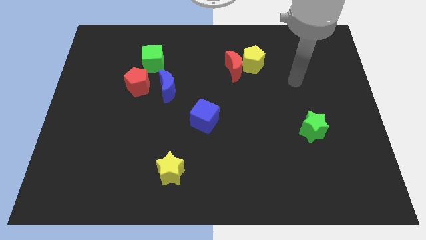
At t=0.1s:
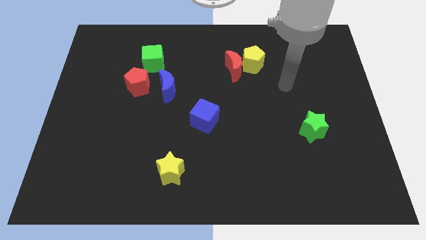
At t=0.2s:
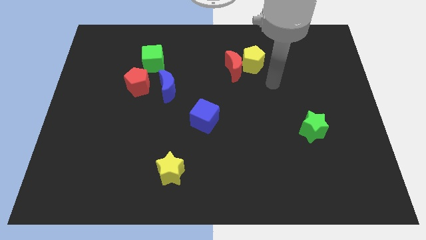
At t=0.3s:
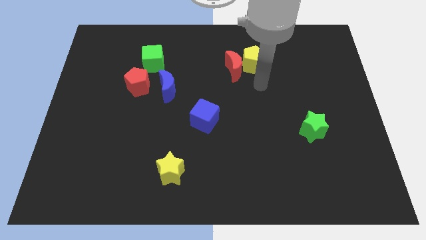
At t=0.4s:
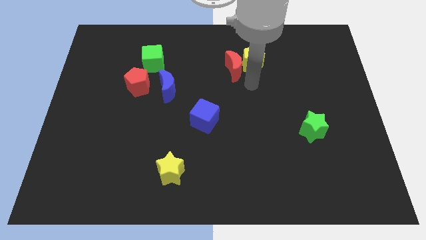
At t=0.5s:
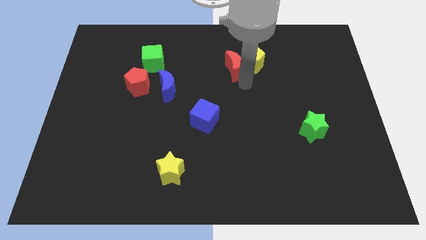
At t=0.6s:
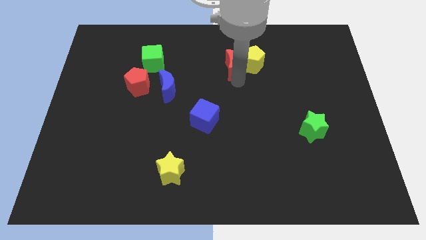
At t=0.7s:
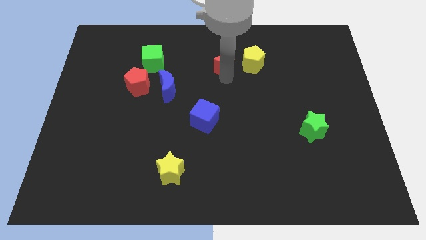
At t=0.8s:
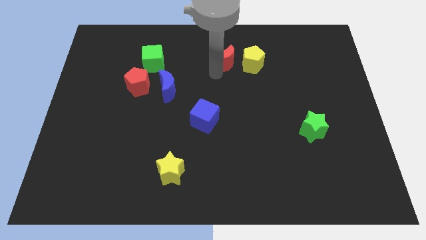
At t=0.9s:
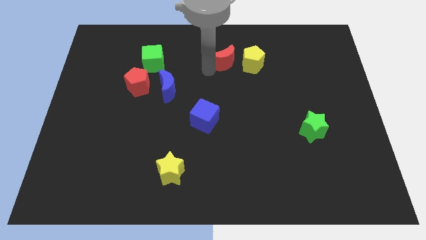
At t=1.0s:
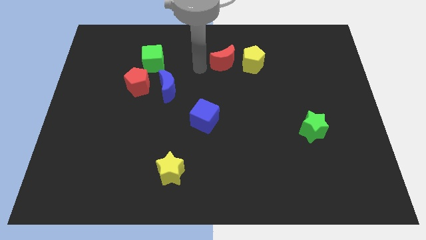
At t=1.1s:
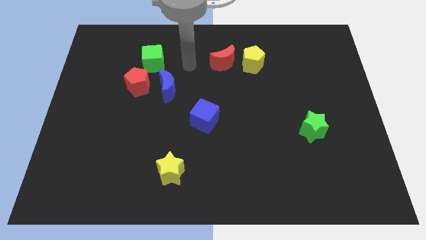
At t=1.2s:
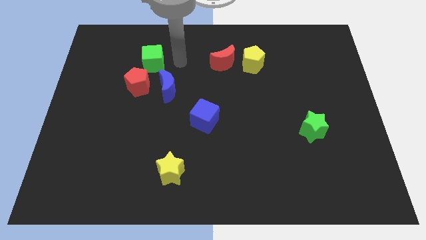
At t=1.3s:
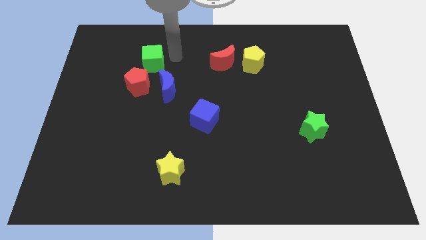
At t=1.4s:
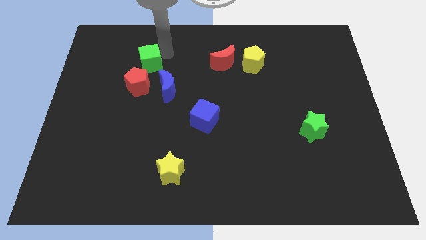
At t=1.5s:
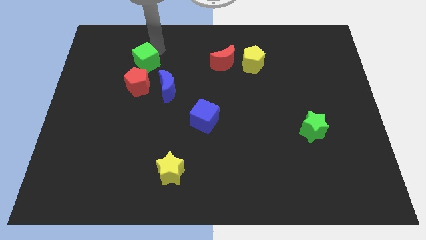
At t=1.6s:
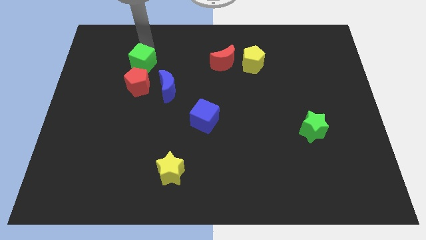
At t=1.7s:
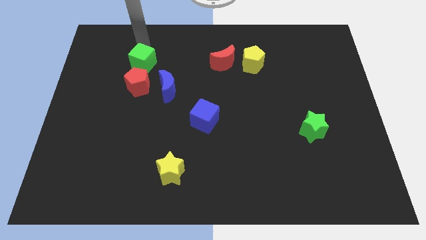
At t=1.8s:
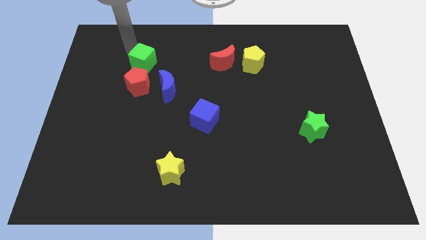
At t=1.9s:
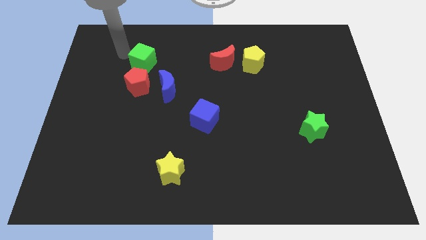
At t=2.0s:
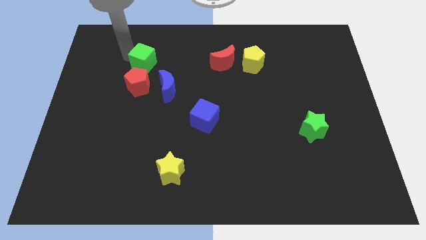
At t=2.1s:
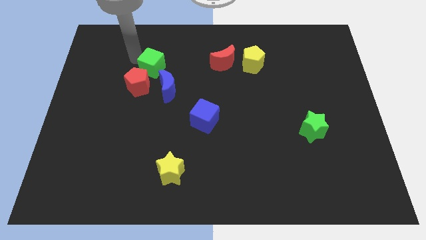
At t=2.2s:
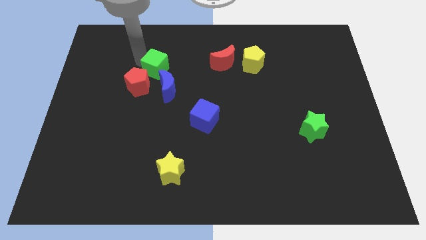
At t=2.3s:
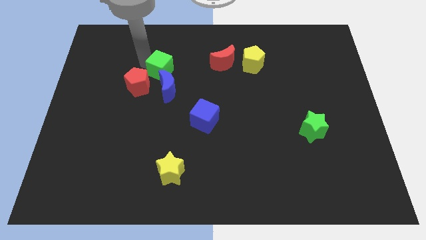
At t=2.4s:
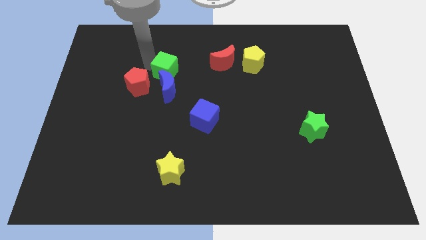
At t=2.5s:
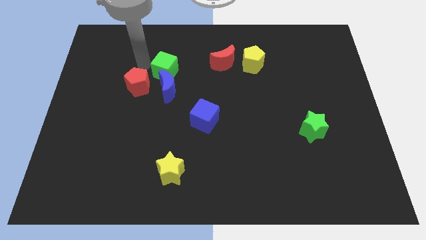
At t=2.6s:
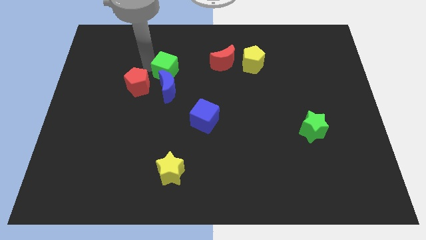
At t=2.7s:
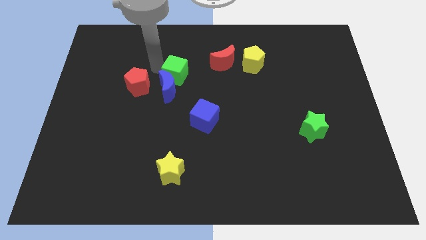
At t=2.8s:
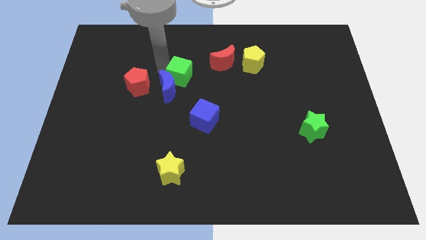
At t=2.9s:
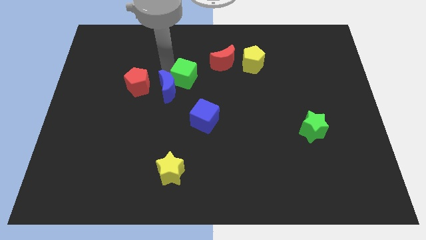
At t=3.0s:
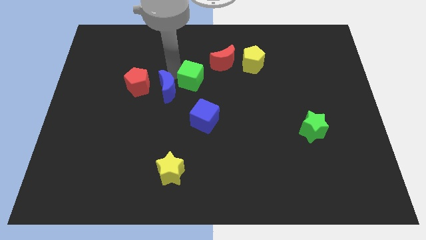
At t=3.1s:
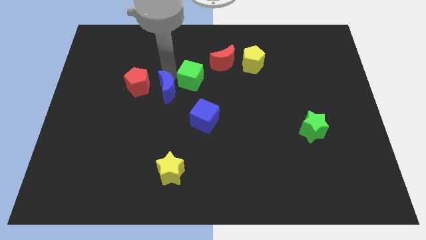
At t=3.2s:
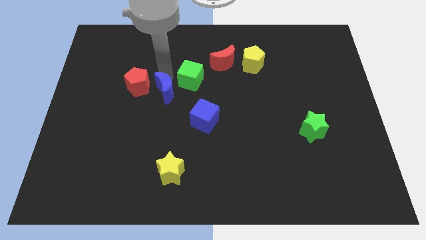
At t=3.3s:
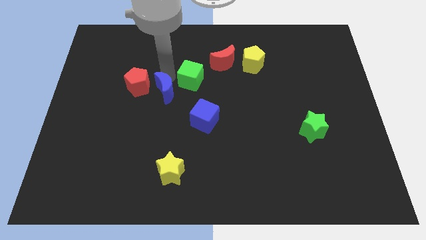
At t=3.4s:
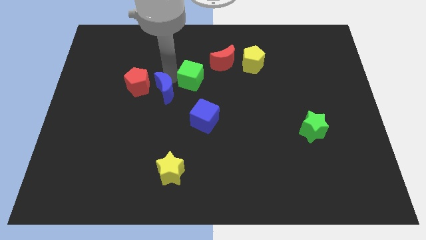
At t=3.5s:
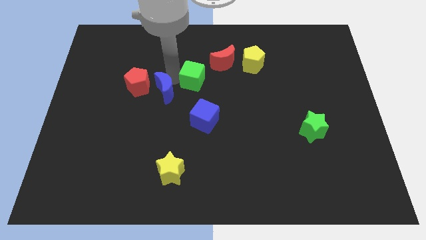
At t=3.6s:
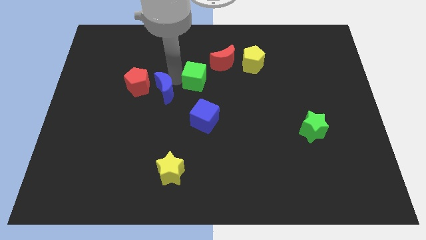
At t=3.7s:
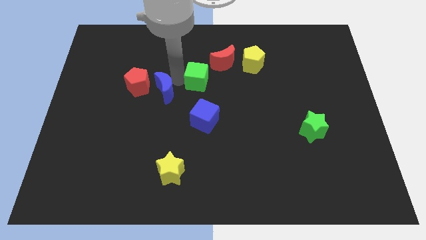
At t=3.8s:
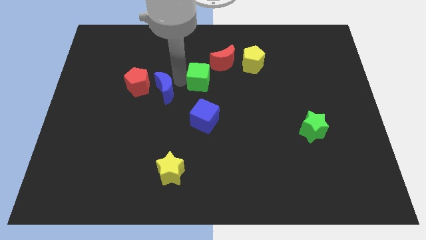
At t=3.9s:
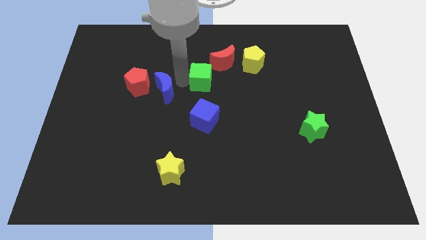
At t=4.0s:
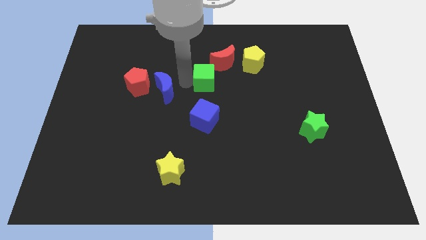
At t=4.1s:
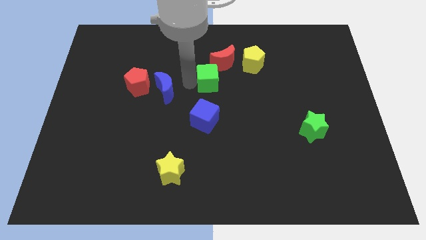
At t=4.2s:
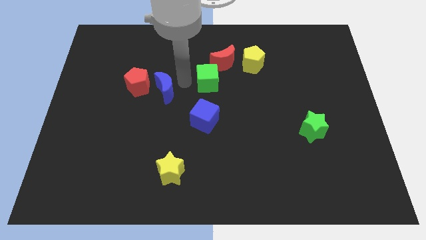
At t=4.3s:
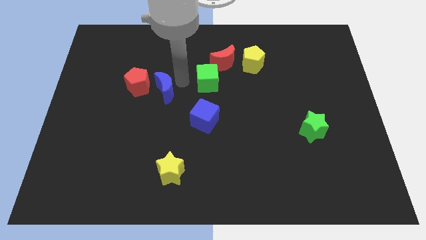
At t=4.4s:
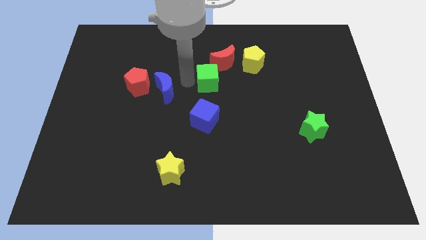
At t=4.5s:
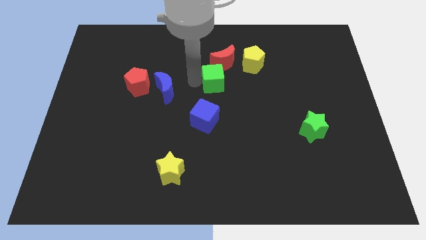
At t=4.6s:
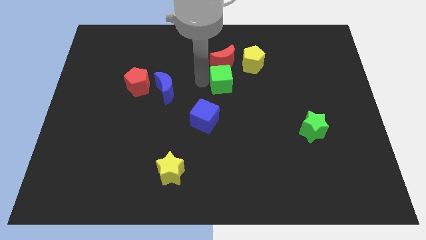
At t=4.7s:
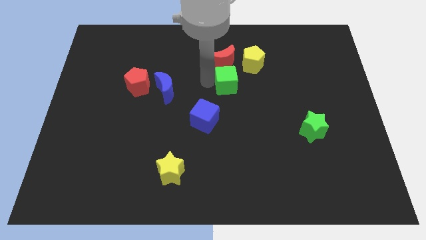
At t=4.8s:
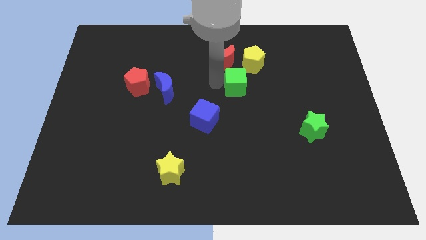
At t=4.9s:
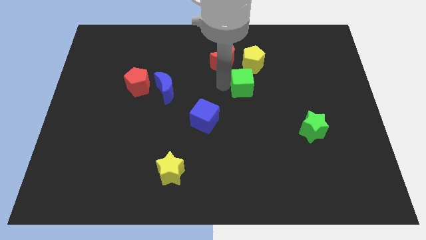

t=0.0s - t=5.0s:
push the green cube right

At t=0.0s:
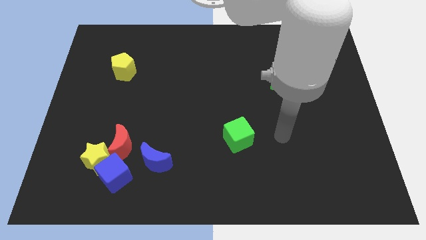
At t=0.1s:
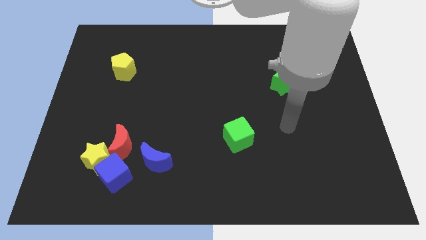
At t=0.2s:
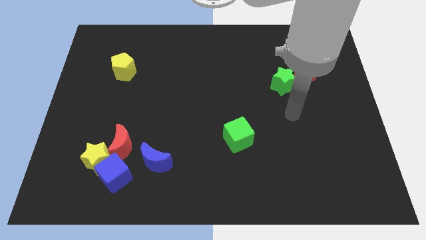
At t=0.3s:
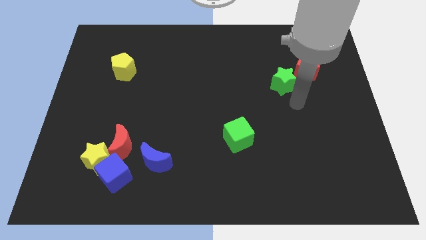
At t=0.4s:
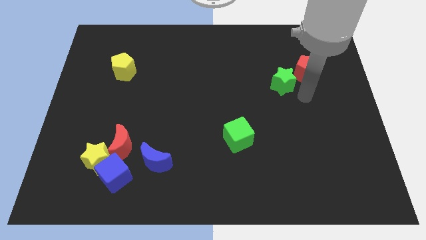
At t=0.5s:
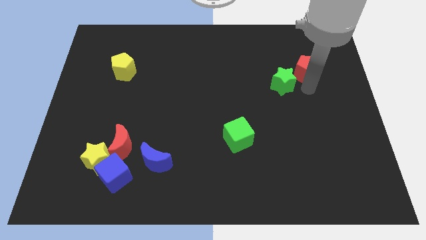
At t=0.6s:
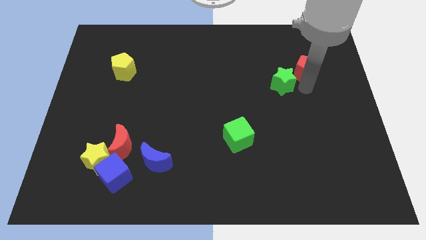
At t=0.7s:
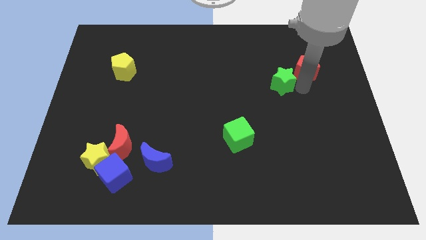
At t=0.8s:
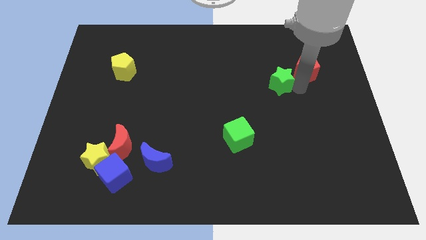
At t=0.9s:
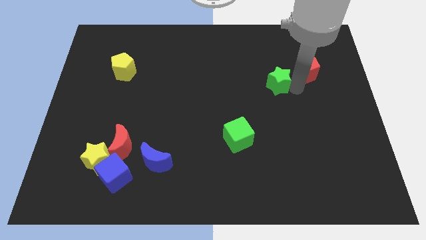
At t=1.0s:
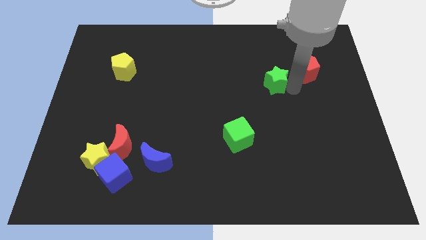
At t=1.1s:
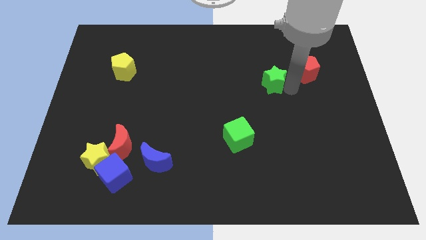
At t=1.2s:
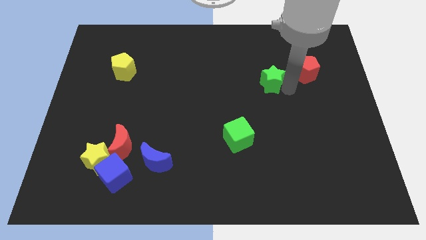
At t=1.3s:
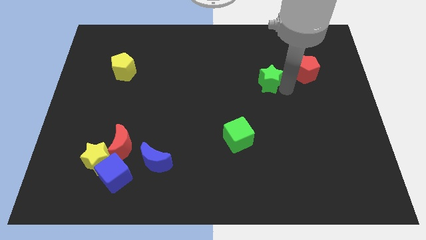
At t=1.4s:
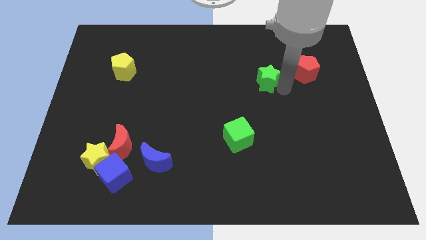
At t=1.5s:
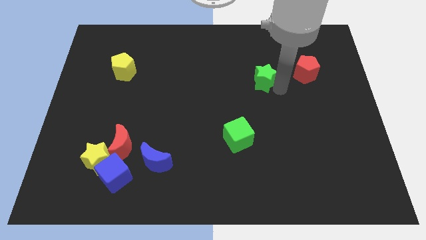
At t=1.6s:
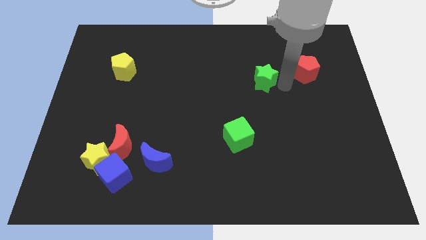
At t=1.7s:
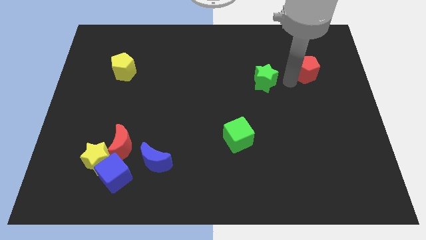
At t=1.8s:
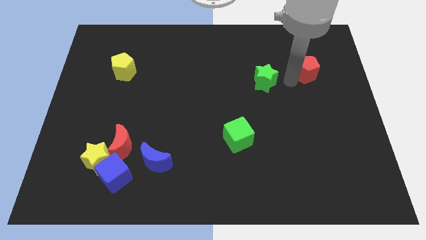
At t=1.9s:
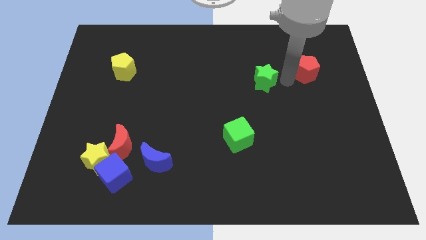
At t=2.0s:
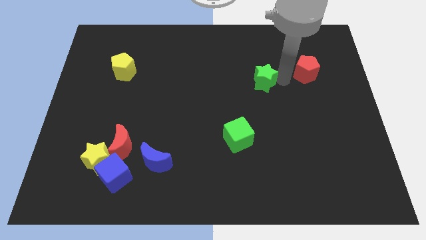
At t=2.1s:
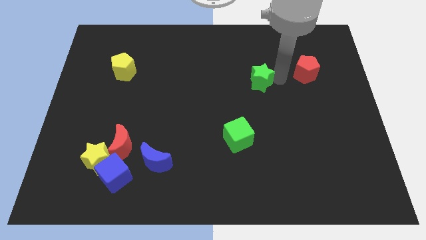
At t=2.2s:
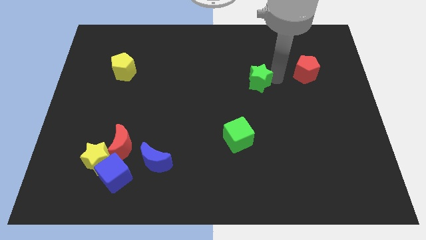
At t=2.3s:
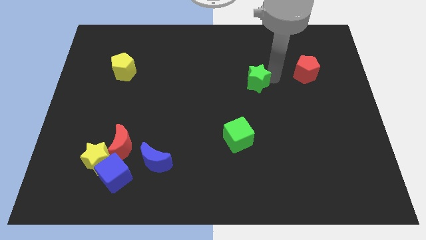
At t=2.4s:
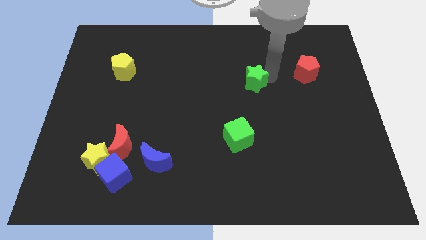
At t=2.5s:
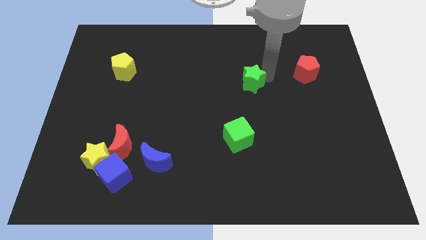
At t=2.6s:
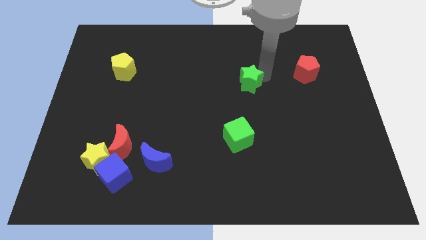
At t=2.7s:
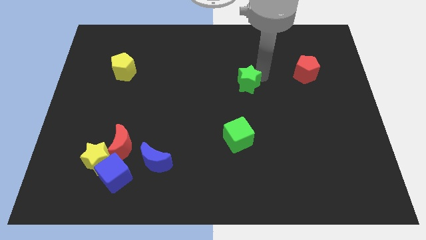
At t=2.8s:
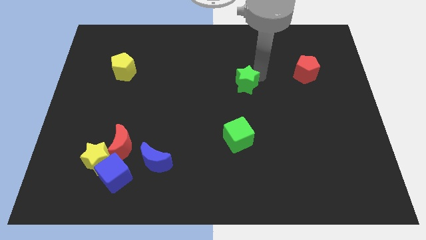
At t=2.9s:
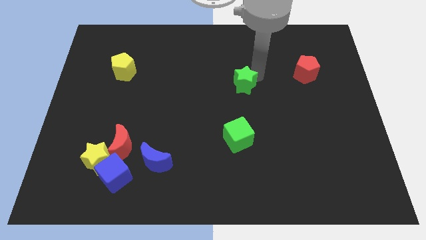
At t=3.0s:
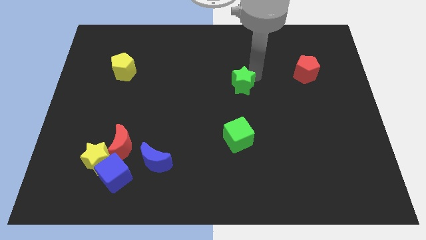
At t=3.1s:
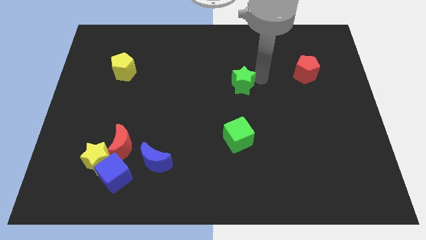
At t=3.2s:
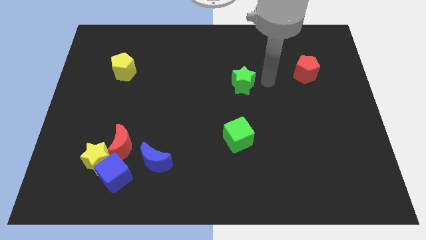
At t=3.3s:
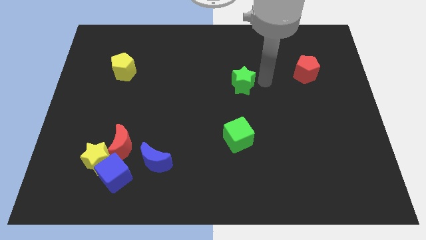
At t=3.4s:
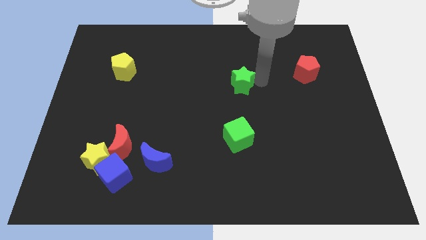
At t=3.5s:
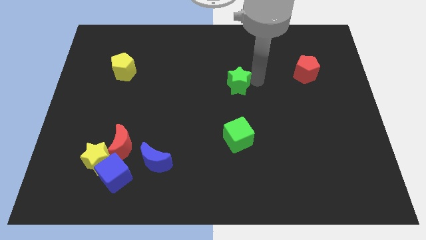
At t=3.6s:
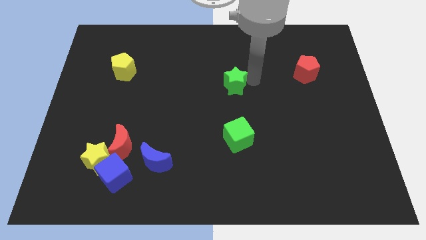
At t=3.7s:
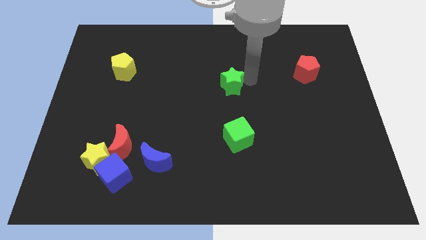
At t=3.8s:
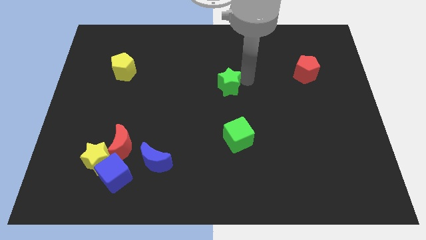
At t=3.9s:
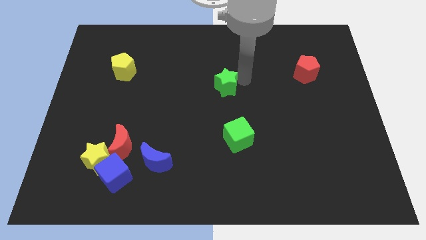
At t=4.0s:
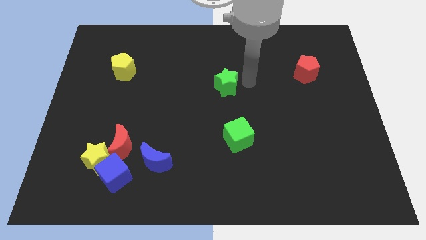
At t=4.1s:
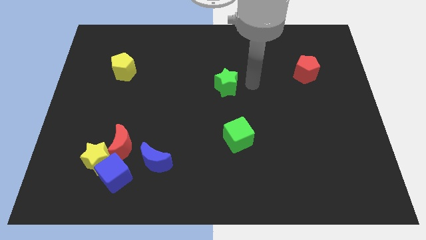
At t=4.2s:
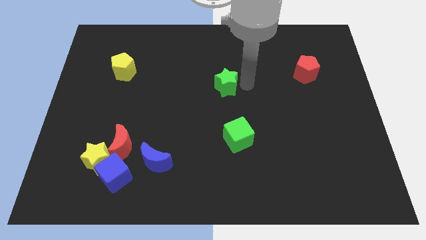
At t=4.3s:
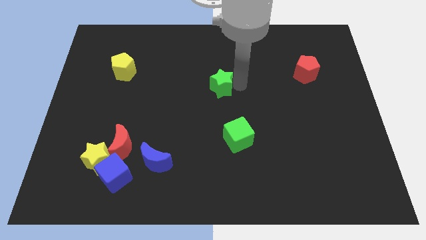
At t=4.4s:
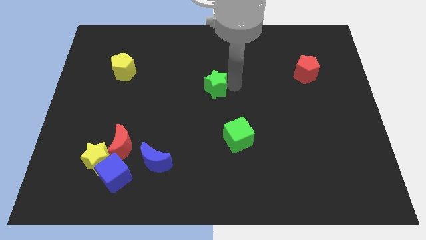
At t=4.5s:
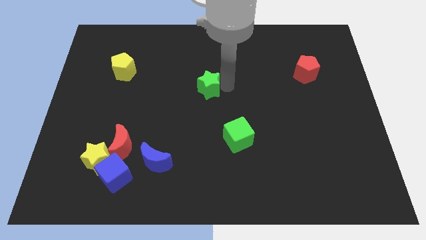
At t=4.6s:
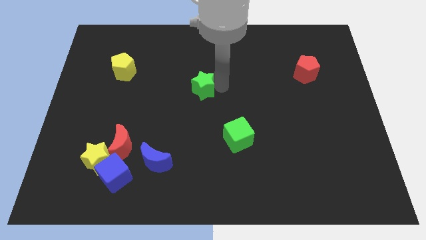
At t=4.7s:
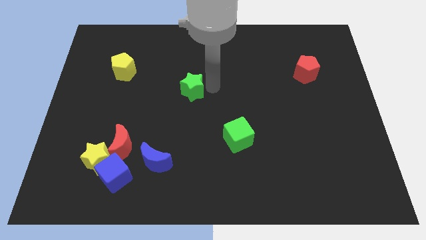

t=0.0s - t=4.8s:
push the green star to the left
